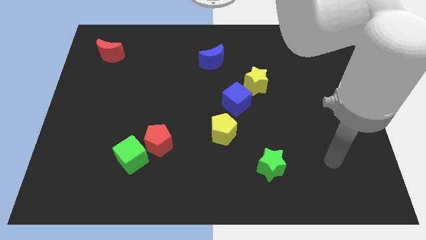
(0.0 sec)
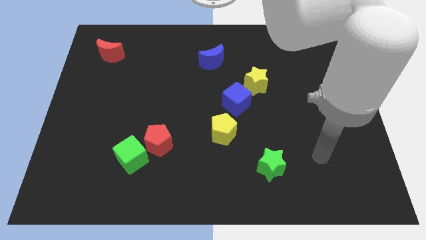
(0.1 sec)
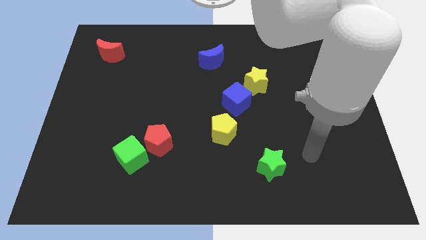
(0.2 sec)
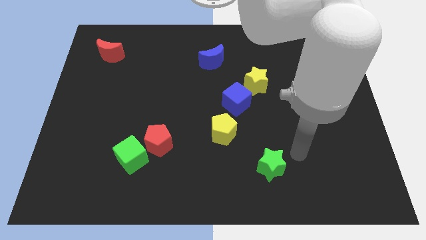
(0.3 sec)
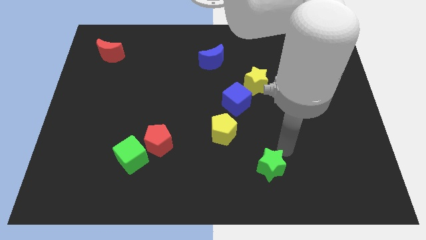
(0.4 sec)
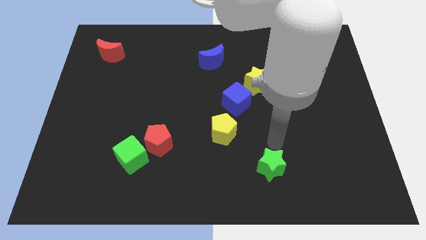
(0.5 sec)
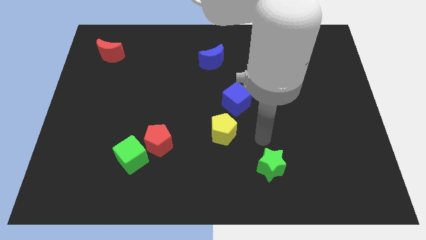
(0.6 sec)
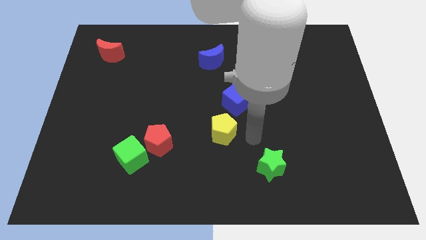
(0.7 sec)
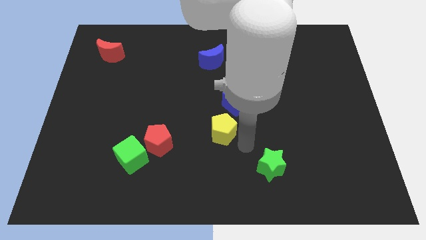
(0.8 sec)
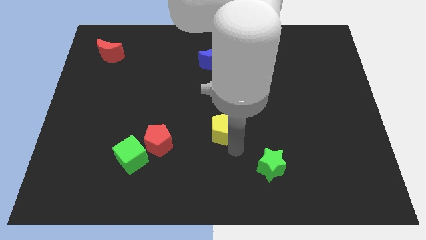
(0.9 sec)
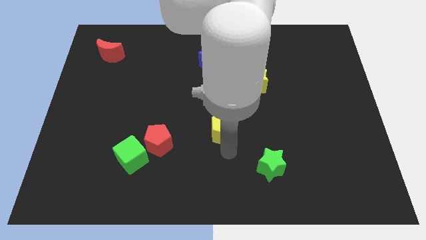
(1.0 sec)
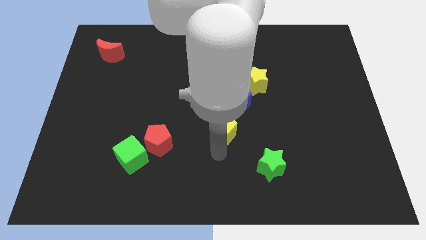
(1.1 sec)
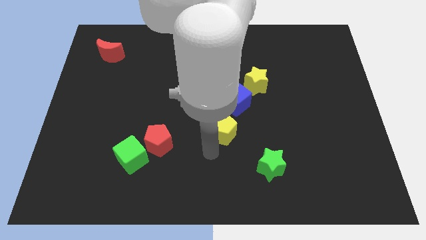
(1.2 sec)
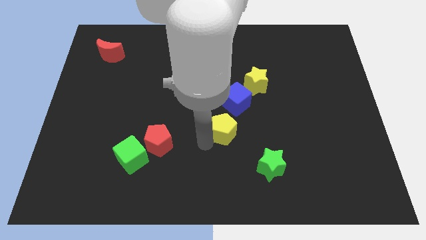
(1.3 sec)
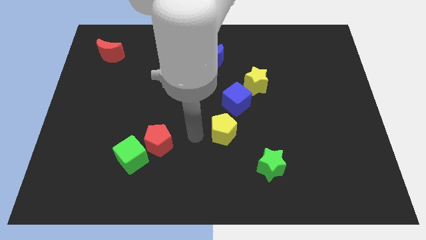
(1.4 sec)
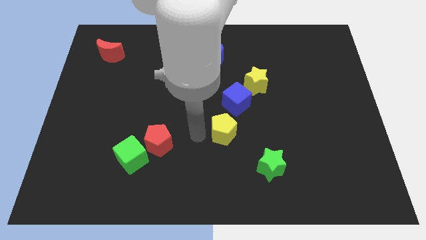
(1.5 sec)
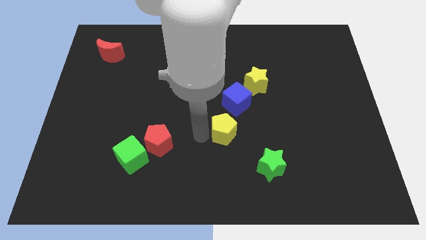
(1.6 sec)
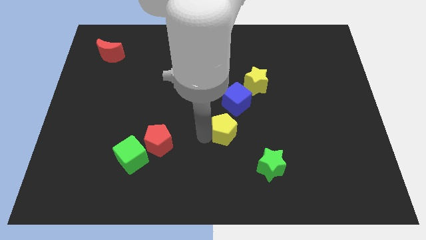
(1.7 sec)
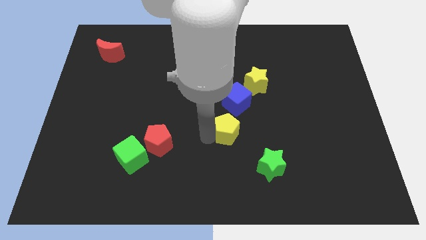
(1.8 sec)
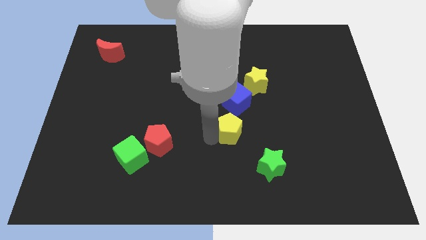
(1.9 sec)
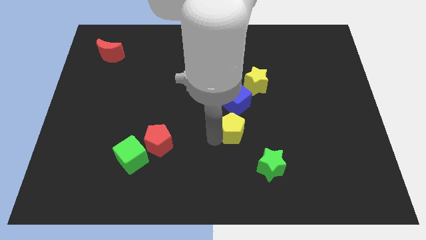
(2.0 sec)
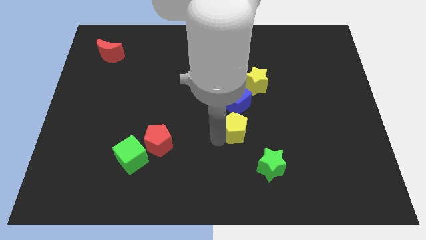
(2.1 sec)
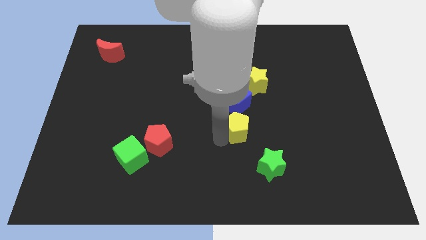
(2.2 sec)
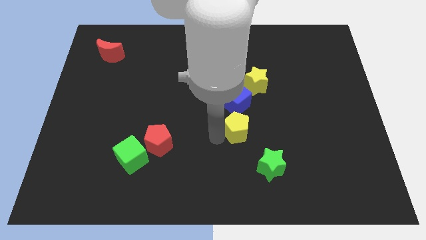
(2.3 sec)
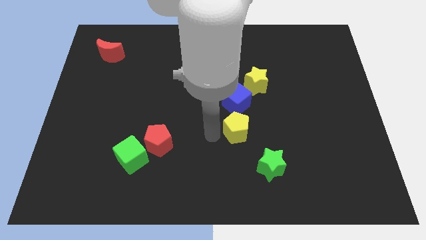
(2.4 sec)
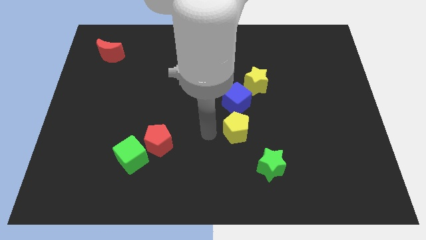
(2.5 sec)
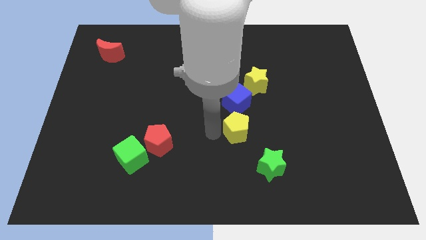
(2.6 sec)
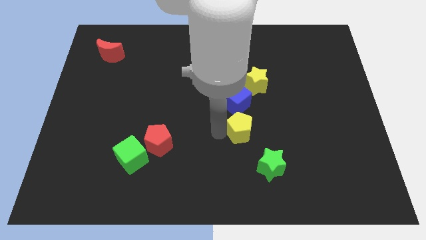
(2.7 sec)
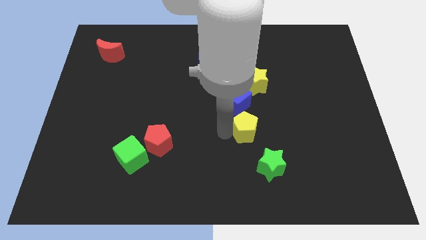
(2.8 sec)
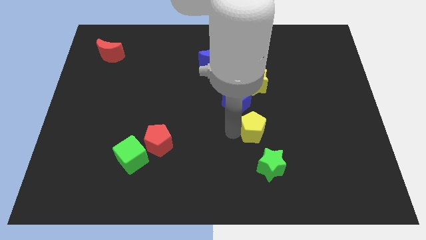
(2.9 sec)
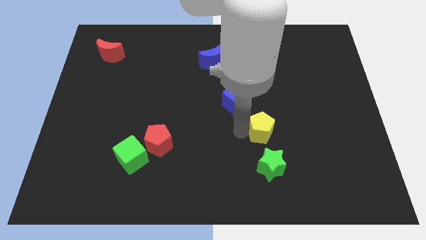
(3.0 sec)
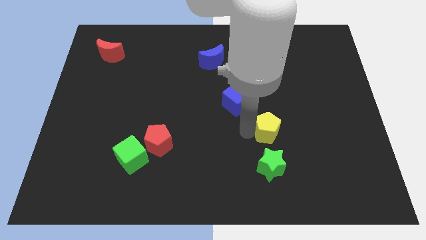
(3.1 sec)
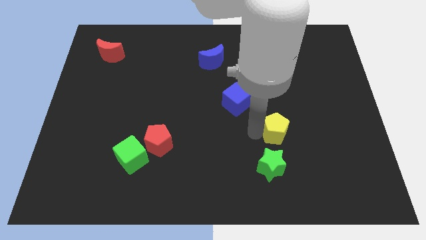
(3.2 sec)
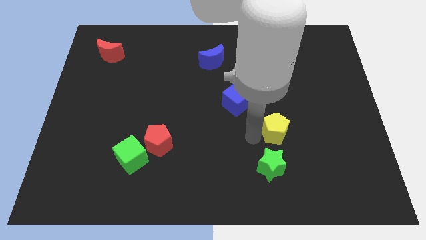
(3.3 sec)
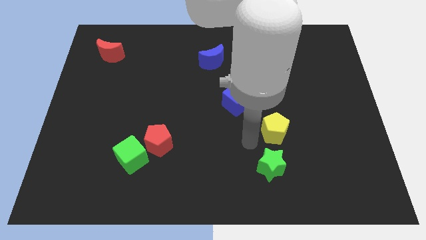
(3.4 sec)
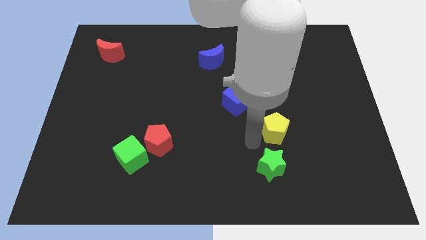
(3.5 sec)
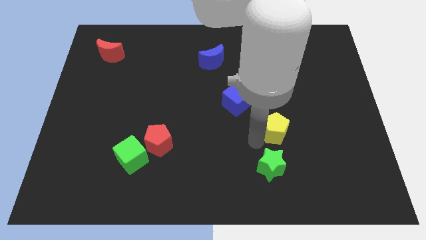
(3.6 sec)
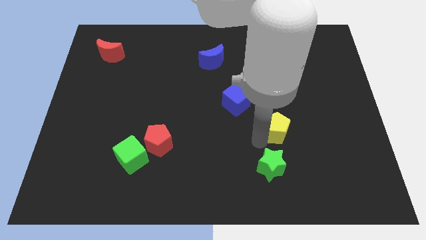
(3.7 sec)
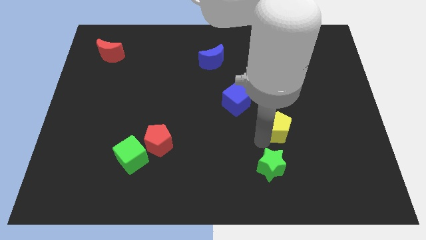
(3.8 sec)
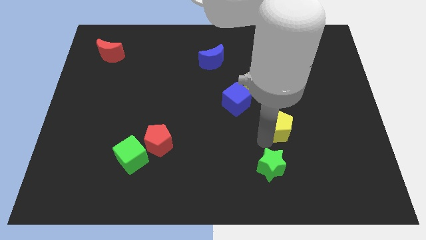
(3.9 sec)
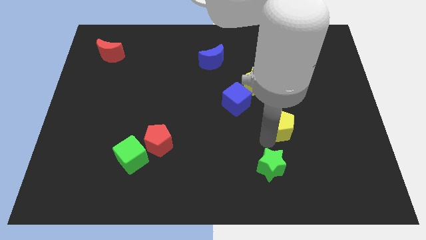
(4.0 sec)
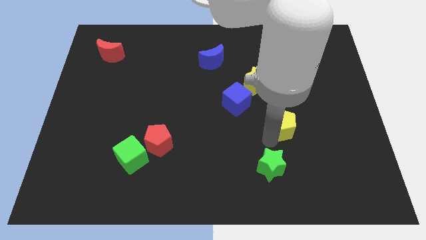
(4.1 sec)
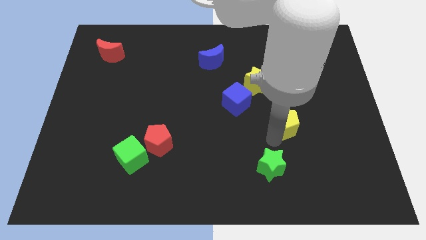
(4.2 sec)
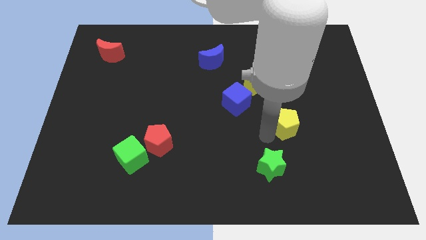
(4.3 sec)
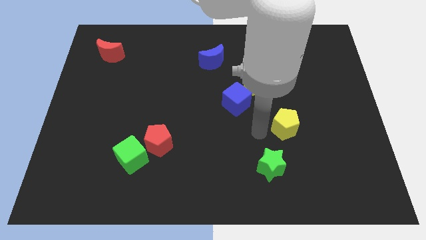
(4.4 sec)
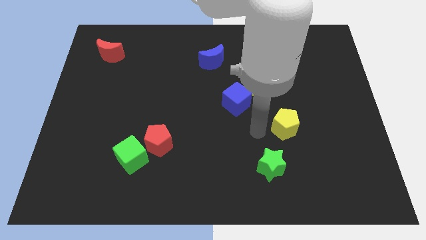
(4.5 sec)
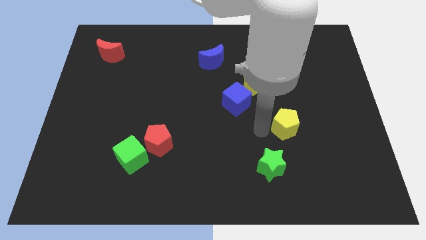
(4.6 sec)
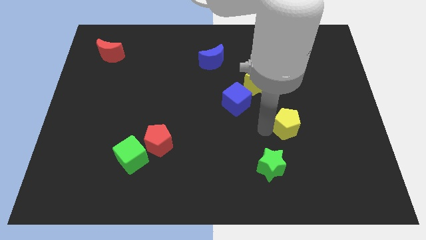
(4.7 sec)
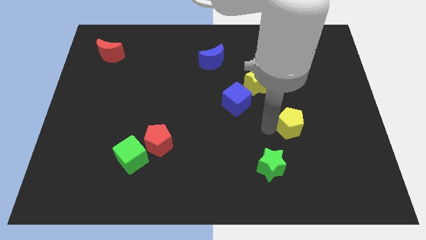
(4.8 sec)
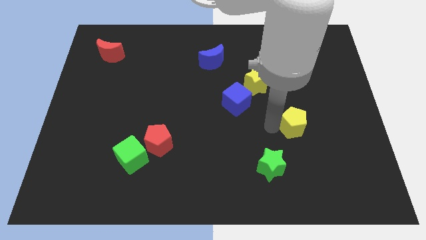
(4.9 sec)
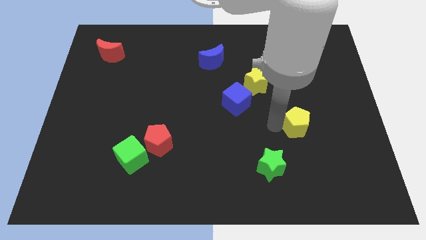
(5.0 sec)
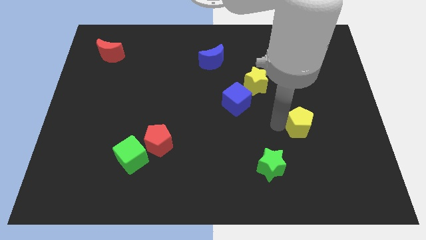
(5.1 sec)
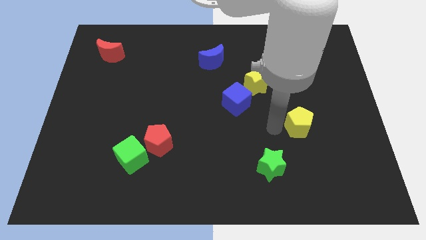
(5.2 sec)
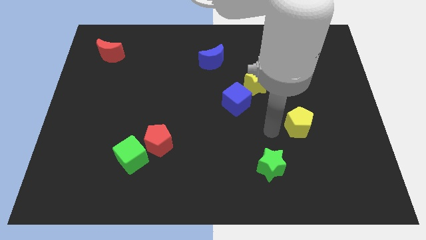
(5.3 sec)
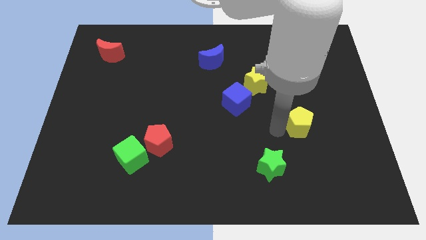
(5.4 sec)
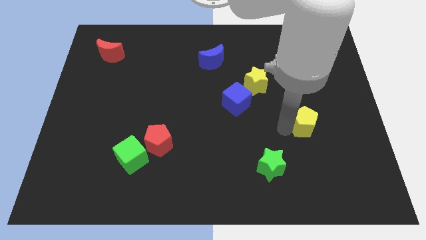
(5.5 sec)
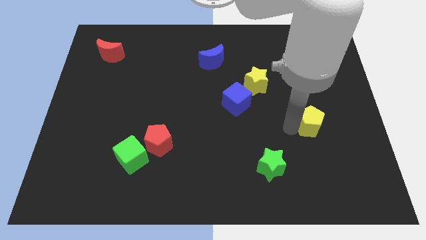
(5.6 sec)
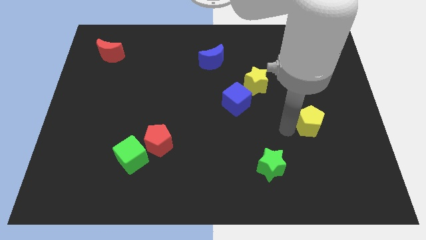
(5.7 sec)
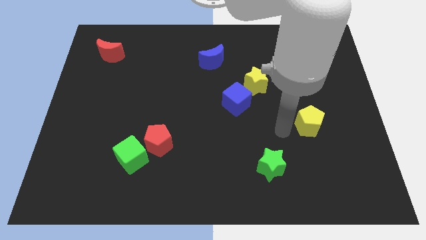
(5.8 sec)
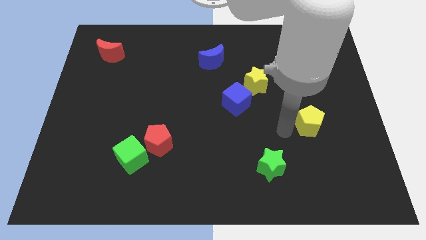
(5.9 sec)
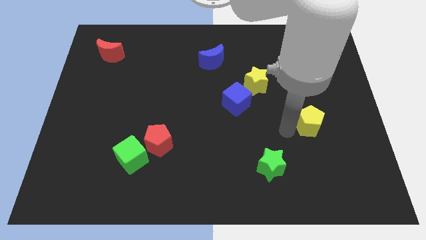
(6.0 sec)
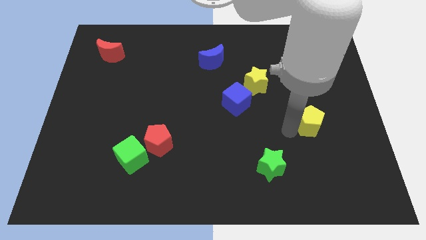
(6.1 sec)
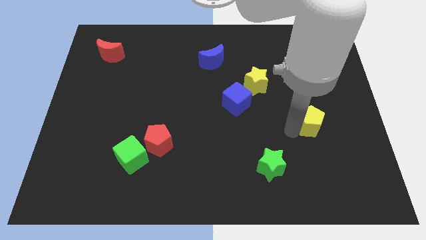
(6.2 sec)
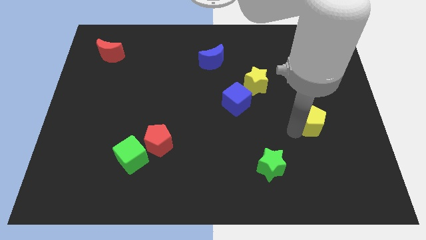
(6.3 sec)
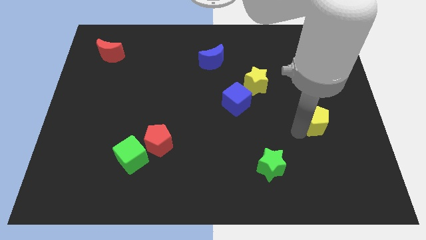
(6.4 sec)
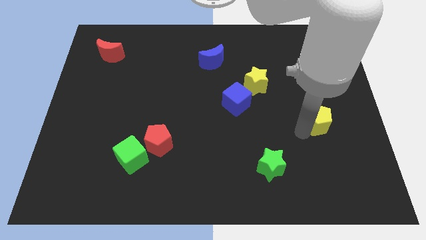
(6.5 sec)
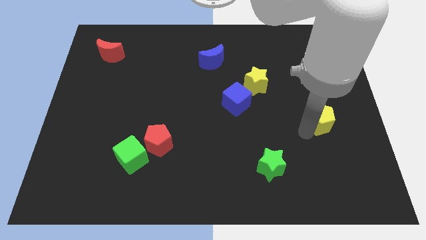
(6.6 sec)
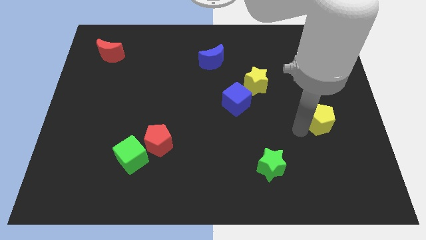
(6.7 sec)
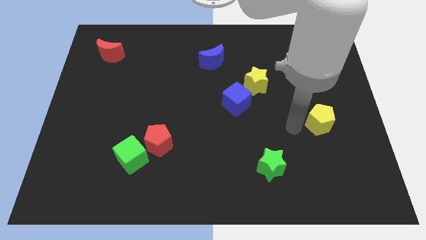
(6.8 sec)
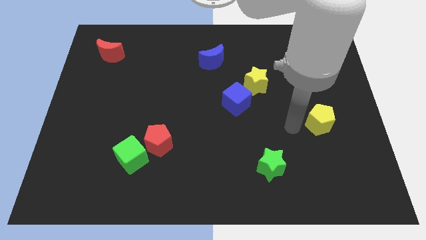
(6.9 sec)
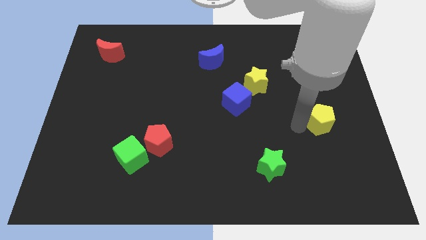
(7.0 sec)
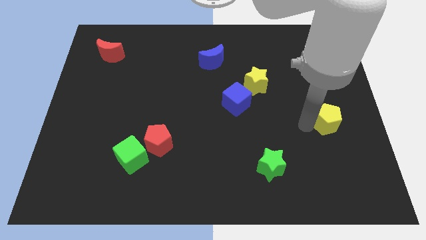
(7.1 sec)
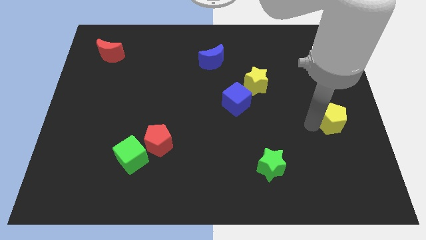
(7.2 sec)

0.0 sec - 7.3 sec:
move the yellow pentagon to the center right

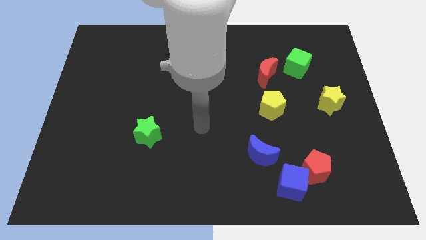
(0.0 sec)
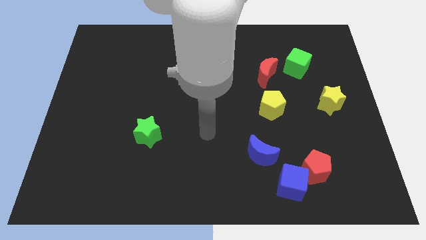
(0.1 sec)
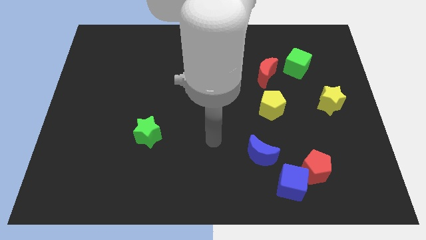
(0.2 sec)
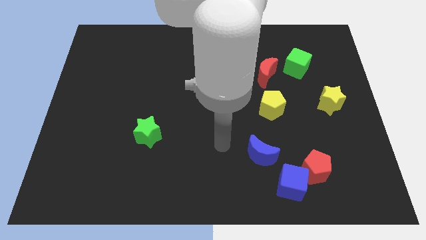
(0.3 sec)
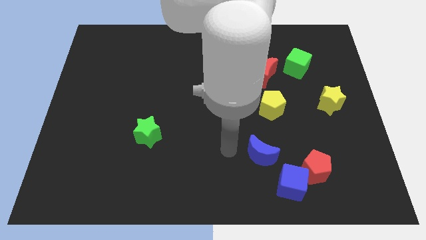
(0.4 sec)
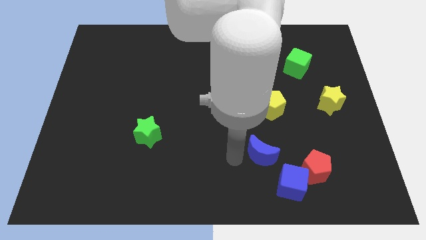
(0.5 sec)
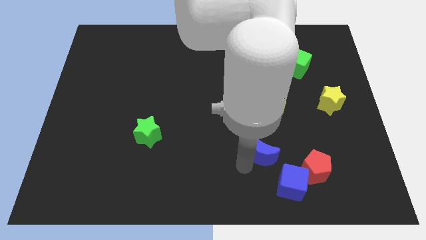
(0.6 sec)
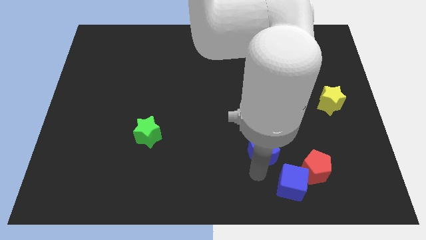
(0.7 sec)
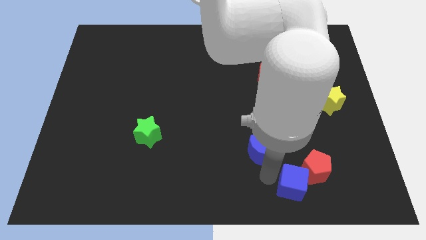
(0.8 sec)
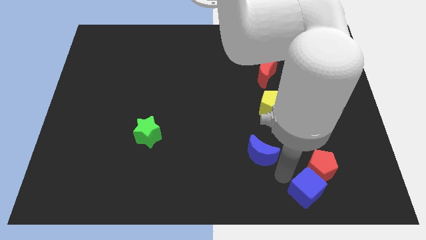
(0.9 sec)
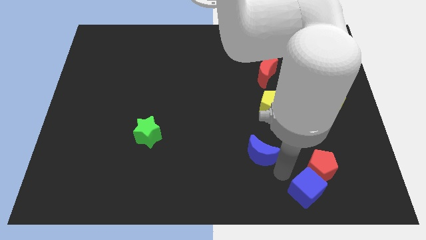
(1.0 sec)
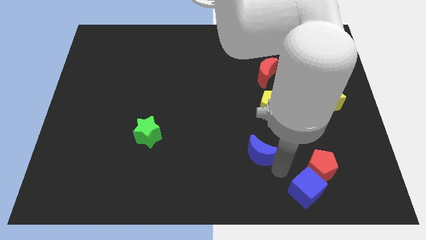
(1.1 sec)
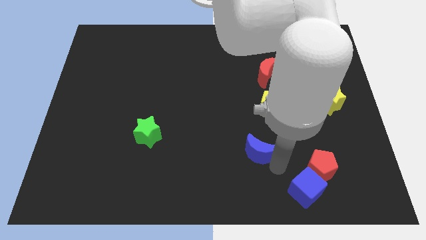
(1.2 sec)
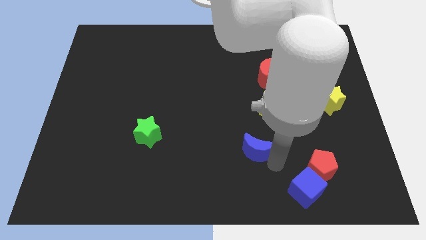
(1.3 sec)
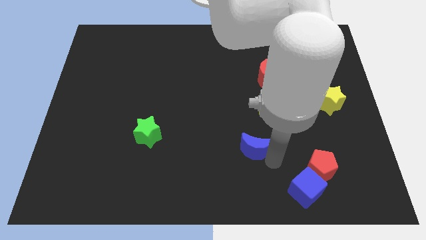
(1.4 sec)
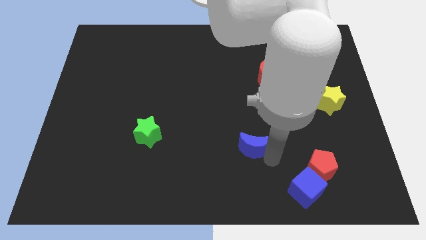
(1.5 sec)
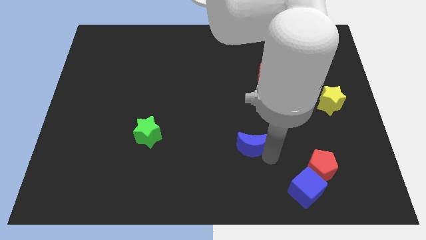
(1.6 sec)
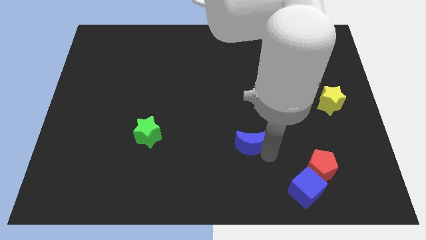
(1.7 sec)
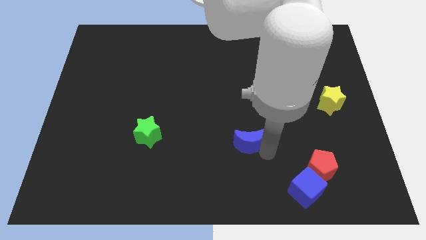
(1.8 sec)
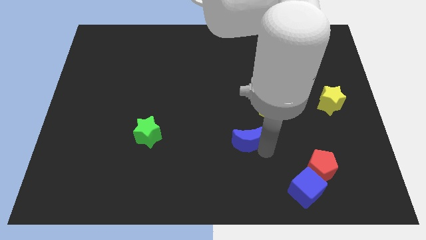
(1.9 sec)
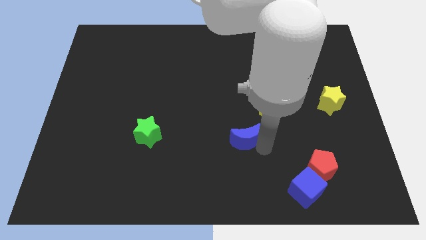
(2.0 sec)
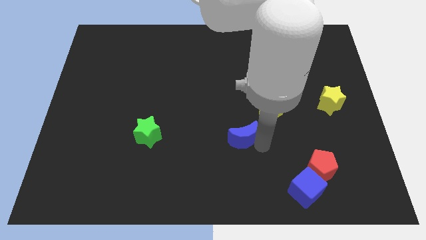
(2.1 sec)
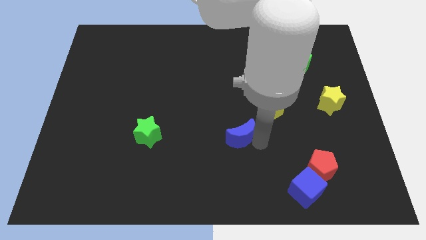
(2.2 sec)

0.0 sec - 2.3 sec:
push the blue moon to the center of the board
